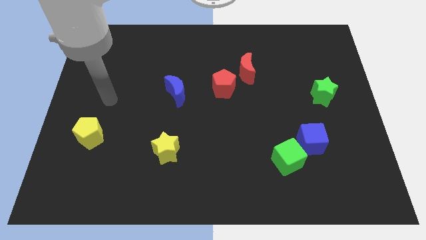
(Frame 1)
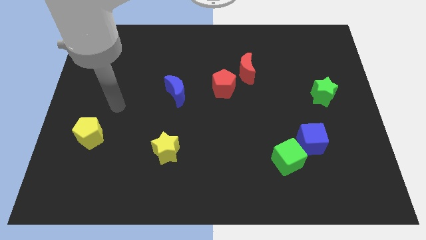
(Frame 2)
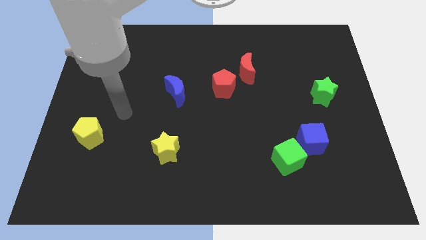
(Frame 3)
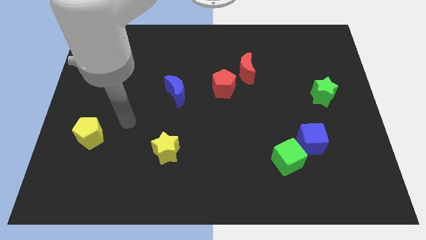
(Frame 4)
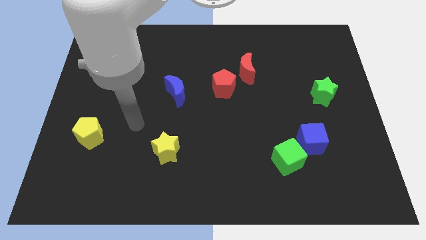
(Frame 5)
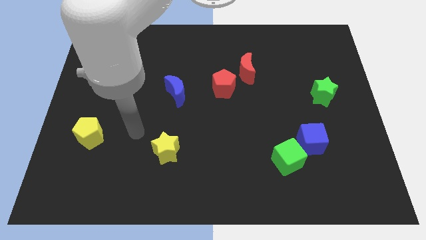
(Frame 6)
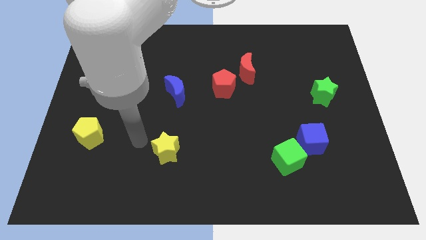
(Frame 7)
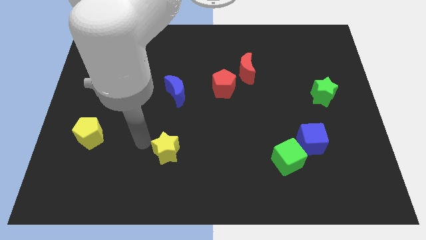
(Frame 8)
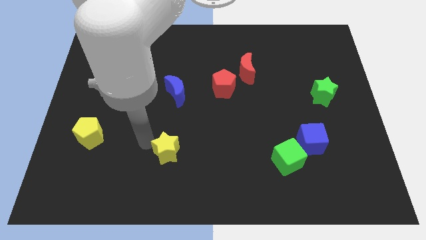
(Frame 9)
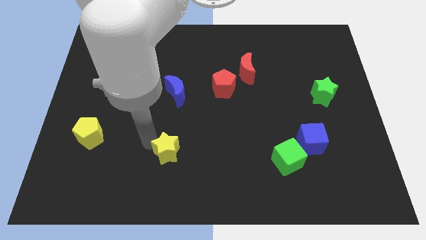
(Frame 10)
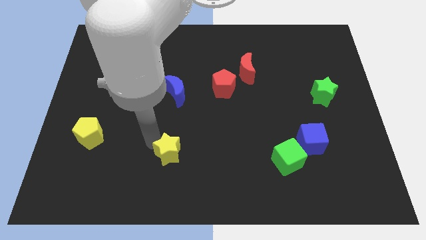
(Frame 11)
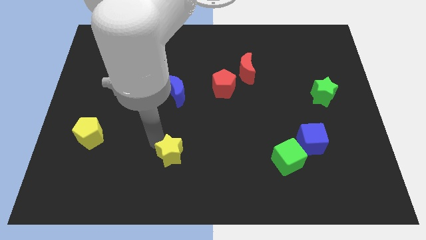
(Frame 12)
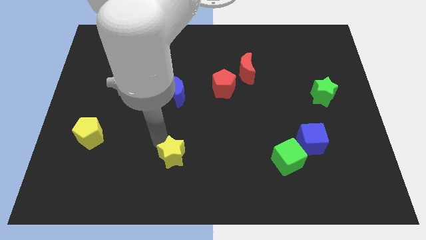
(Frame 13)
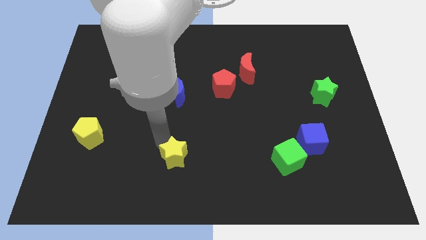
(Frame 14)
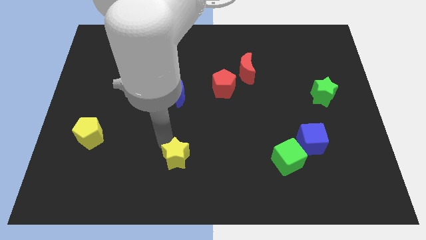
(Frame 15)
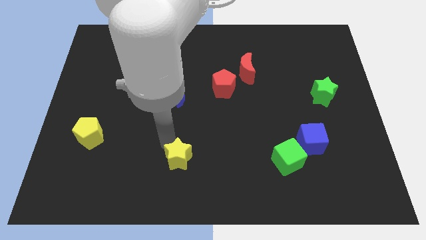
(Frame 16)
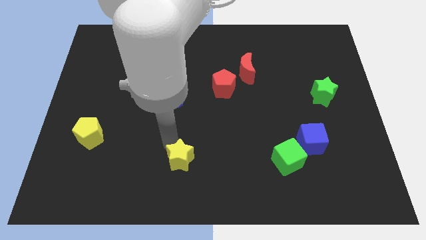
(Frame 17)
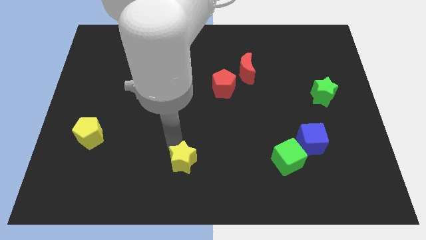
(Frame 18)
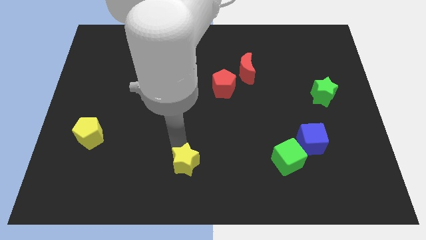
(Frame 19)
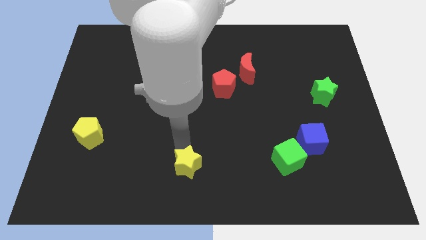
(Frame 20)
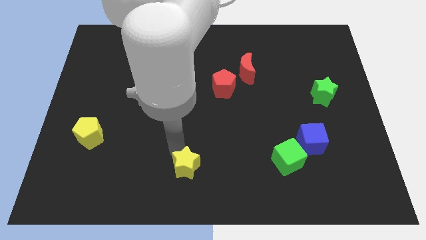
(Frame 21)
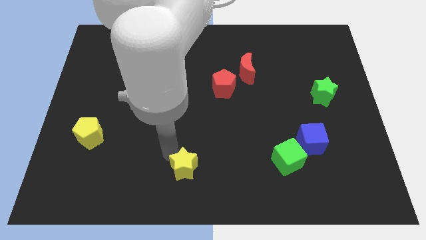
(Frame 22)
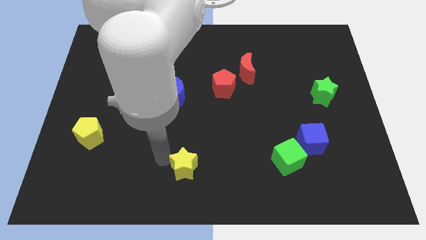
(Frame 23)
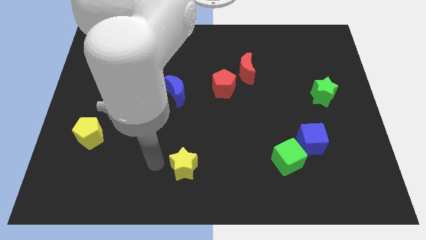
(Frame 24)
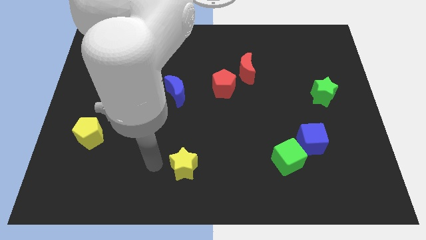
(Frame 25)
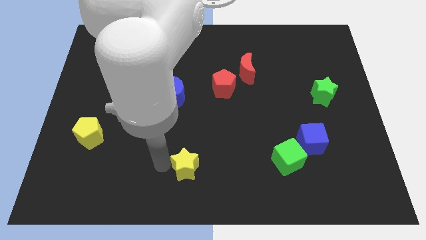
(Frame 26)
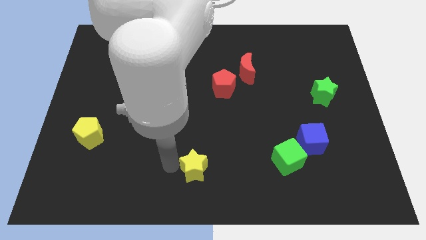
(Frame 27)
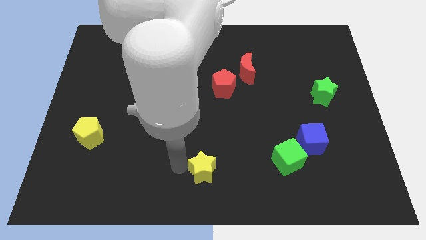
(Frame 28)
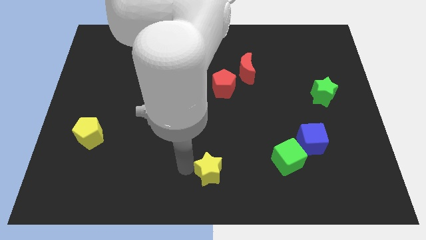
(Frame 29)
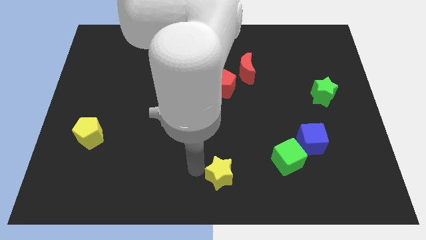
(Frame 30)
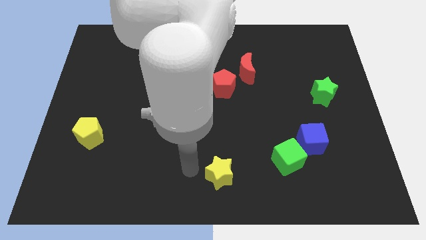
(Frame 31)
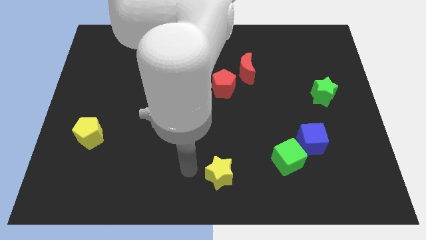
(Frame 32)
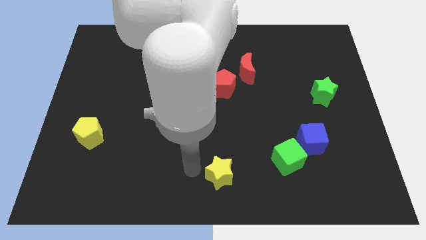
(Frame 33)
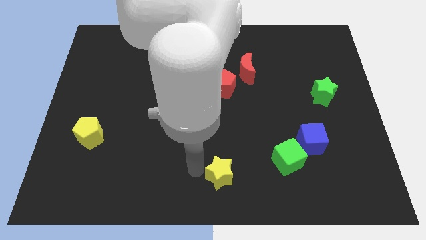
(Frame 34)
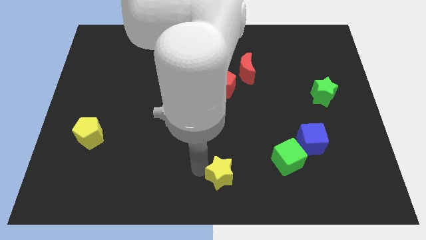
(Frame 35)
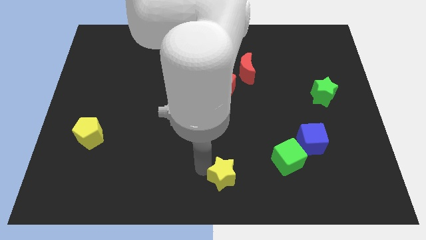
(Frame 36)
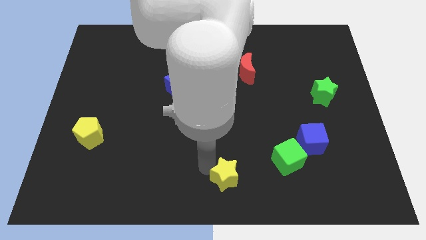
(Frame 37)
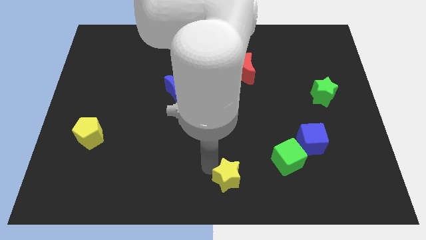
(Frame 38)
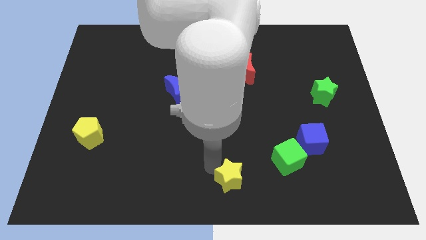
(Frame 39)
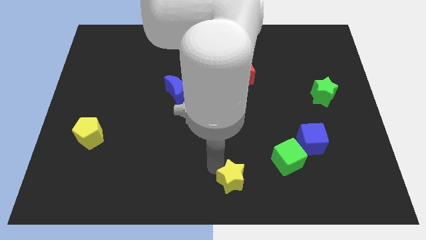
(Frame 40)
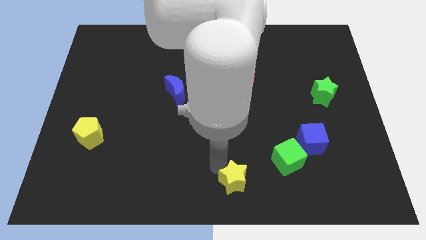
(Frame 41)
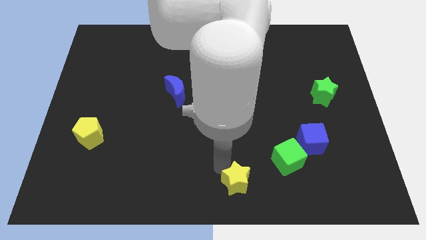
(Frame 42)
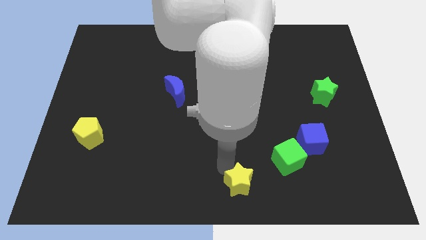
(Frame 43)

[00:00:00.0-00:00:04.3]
slide the yellow star diagonally down and to the left of the green cube

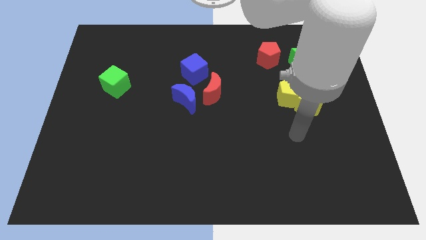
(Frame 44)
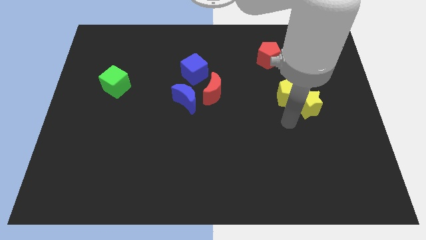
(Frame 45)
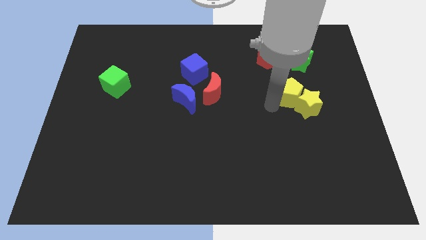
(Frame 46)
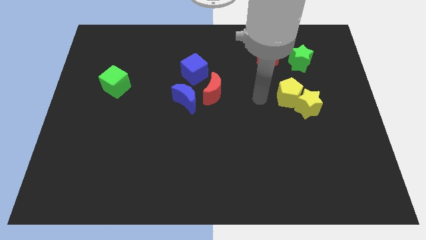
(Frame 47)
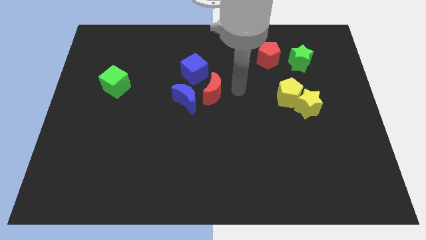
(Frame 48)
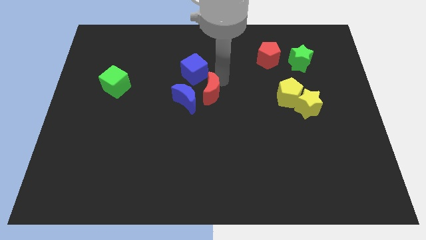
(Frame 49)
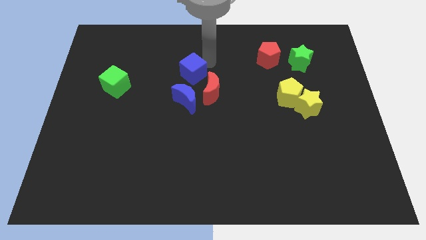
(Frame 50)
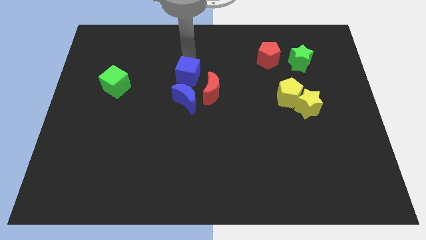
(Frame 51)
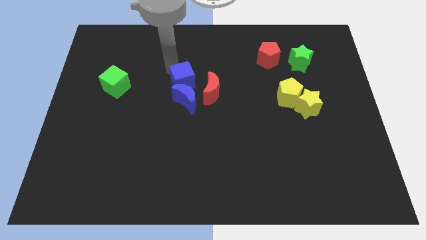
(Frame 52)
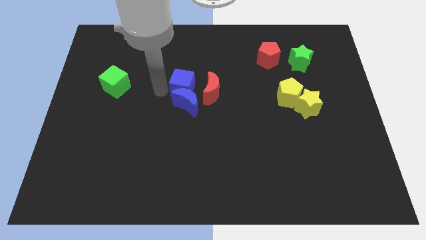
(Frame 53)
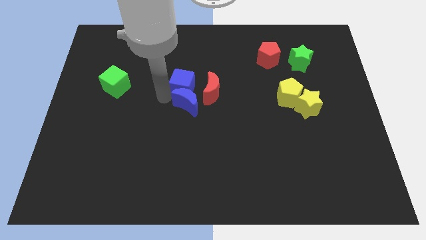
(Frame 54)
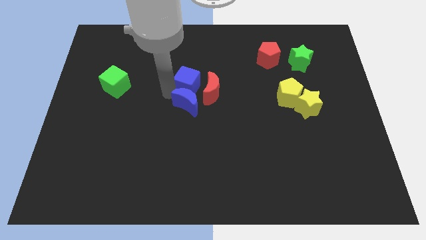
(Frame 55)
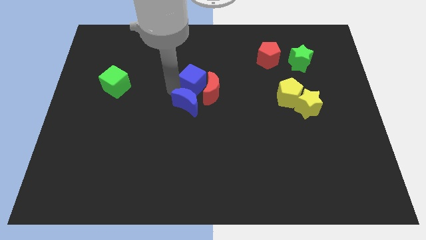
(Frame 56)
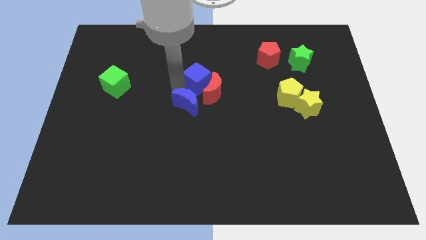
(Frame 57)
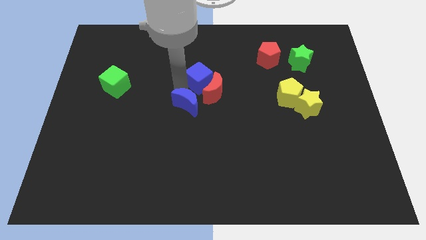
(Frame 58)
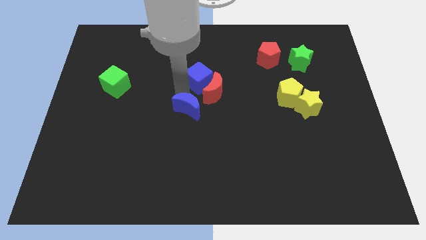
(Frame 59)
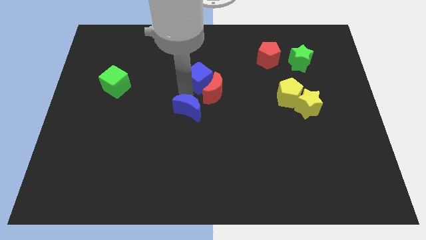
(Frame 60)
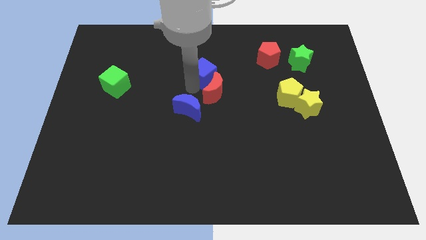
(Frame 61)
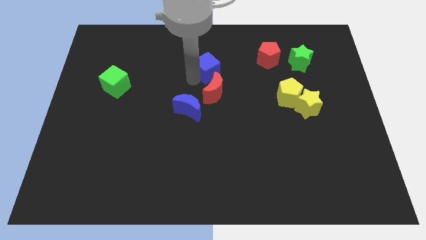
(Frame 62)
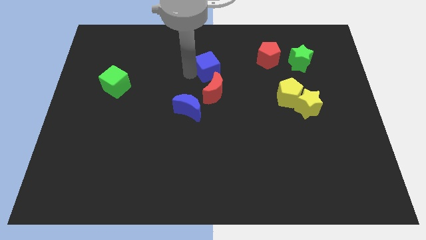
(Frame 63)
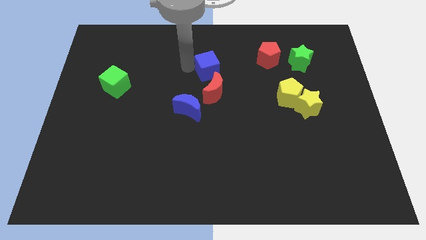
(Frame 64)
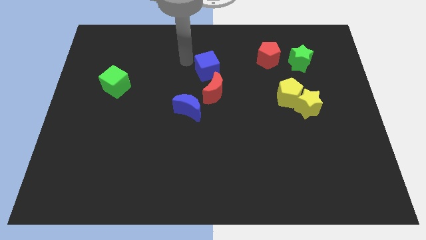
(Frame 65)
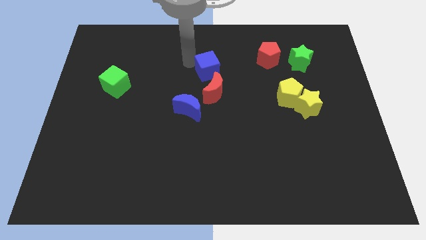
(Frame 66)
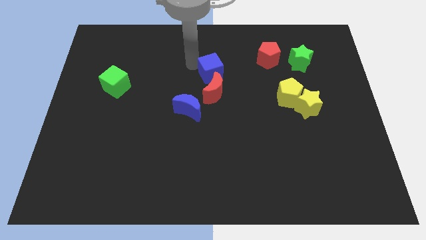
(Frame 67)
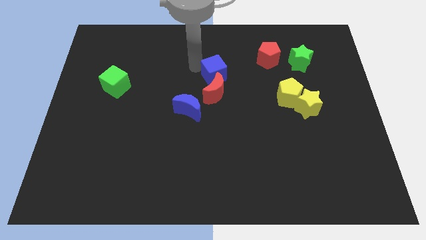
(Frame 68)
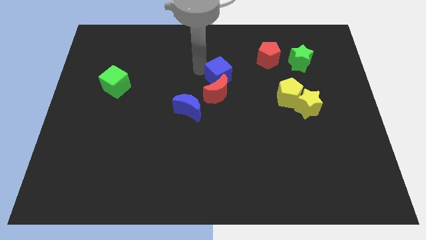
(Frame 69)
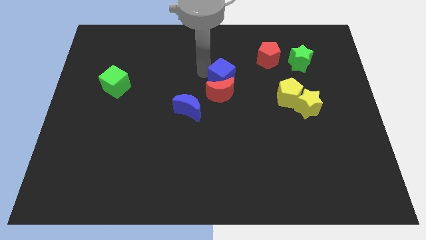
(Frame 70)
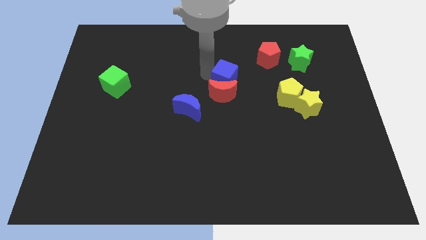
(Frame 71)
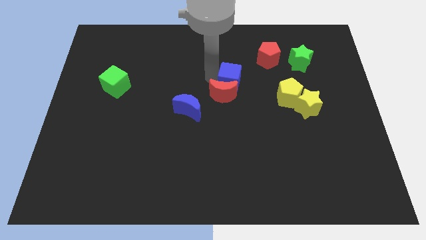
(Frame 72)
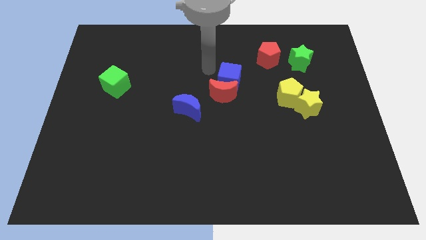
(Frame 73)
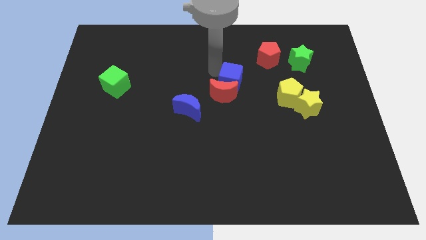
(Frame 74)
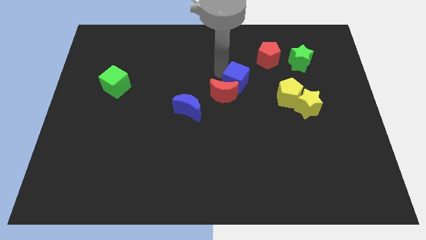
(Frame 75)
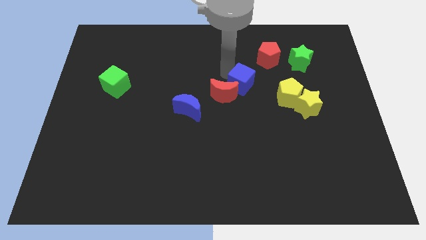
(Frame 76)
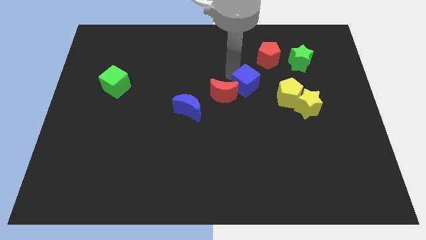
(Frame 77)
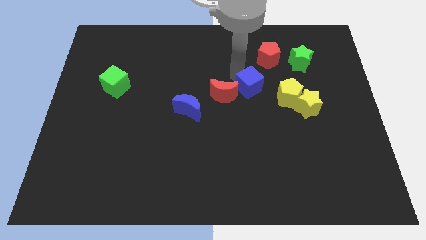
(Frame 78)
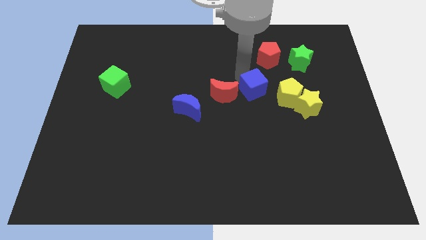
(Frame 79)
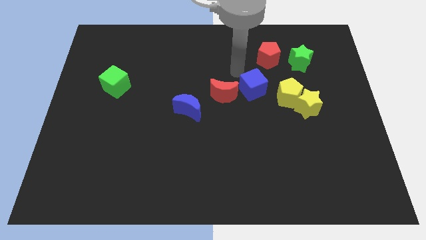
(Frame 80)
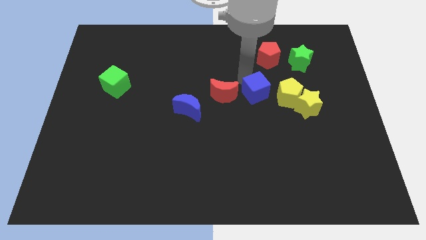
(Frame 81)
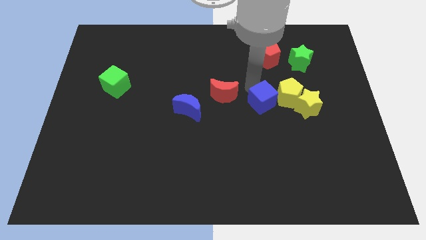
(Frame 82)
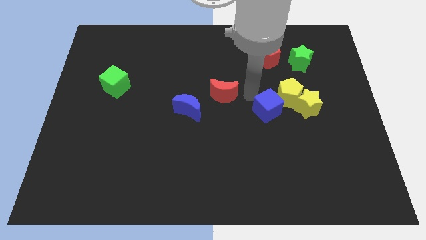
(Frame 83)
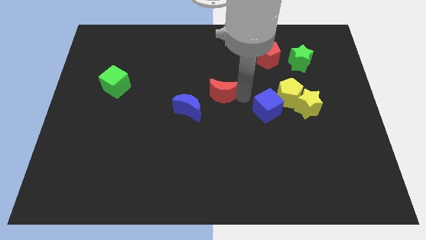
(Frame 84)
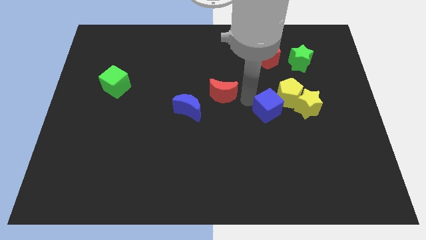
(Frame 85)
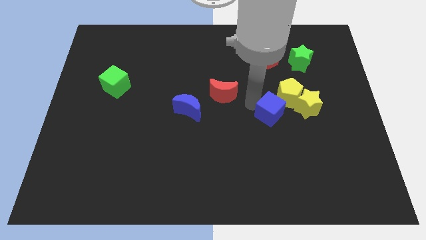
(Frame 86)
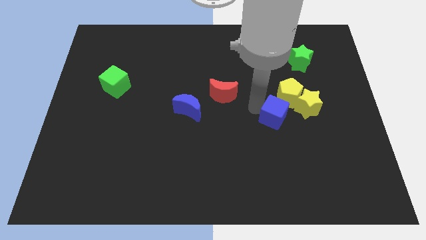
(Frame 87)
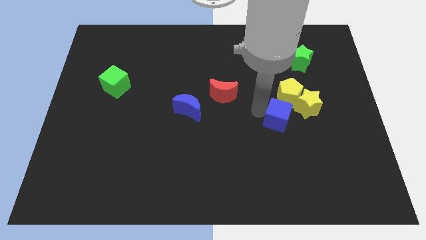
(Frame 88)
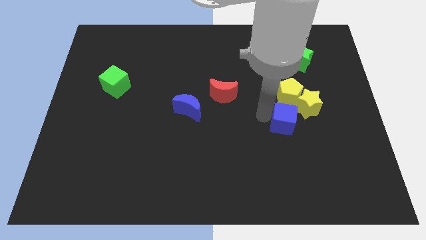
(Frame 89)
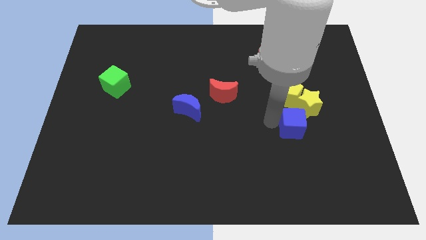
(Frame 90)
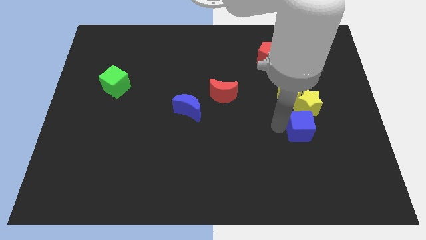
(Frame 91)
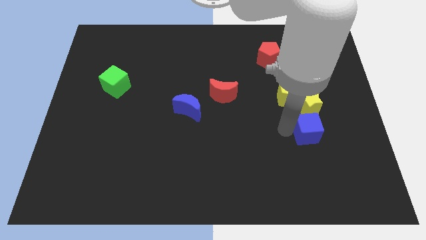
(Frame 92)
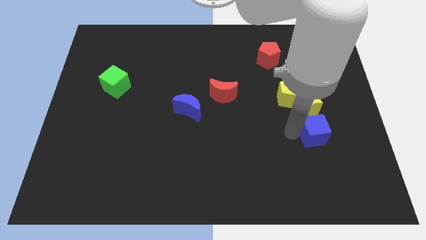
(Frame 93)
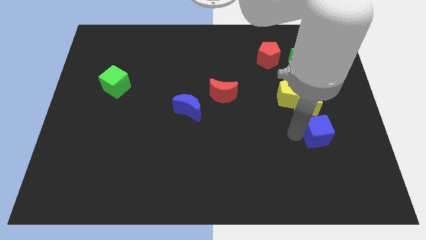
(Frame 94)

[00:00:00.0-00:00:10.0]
put the blue cube diagonally down and to the right of the yellow star
